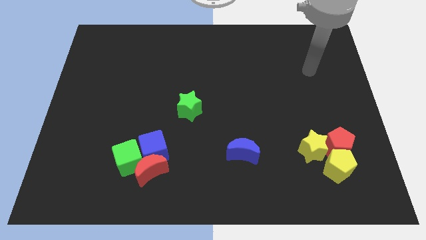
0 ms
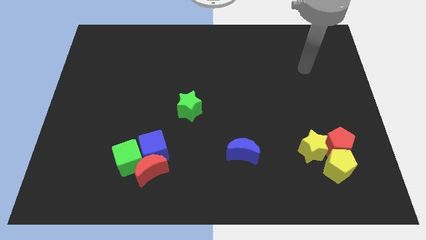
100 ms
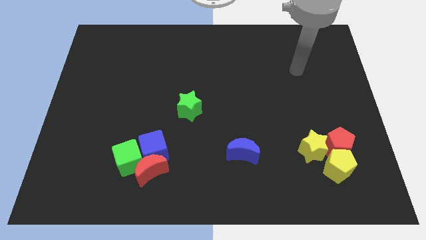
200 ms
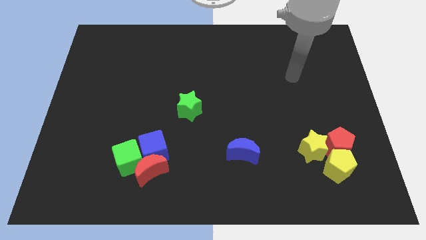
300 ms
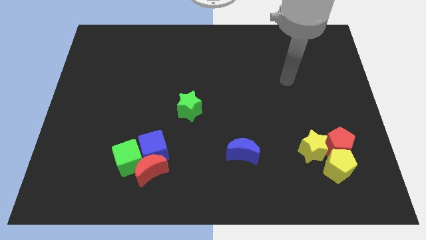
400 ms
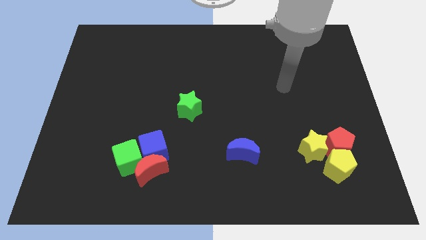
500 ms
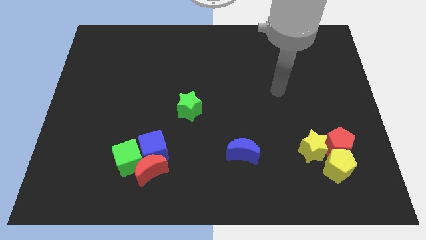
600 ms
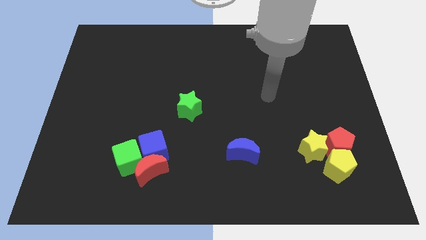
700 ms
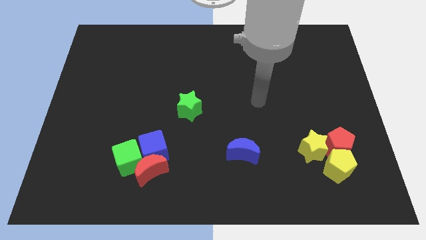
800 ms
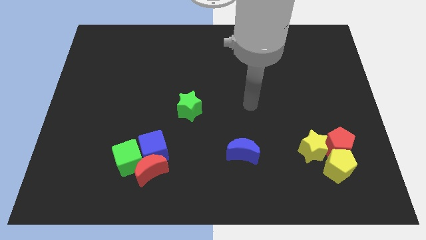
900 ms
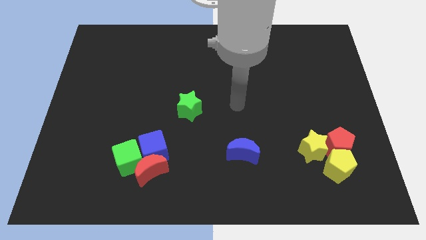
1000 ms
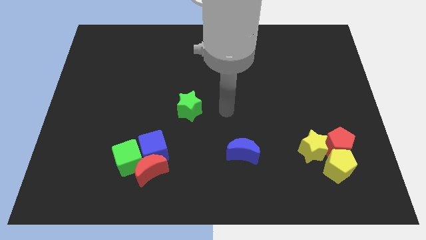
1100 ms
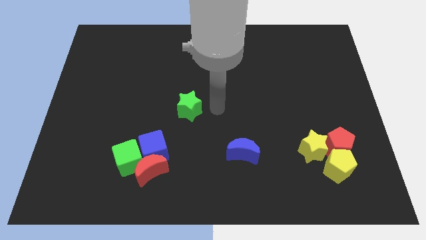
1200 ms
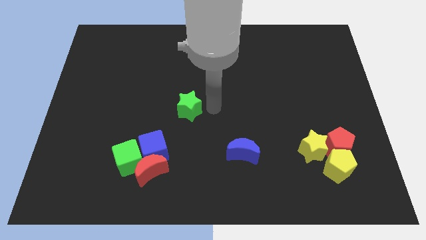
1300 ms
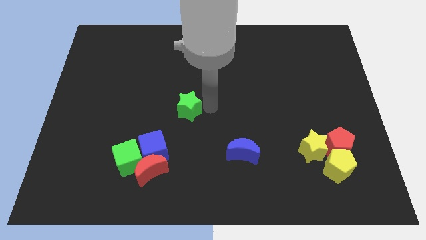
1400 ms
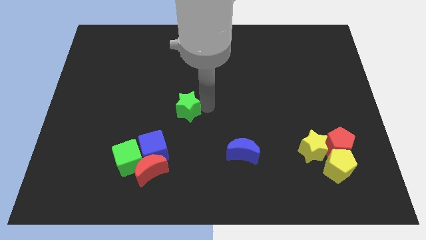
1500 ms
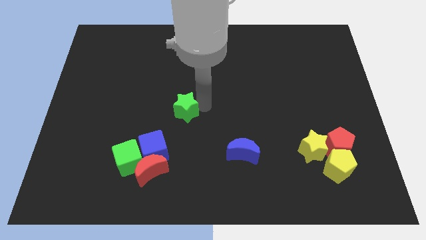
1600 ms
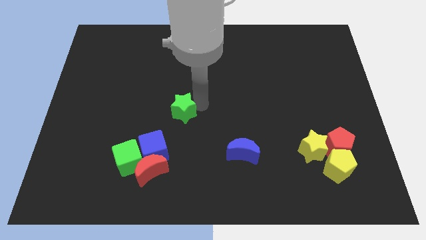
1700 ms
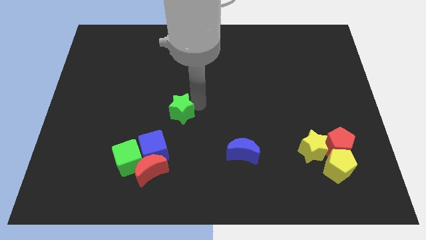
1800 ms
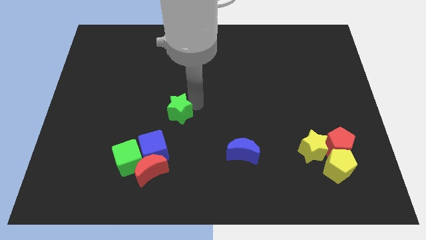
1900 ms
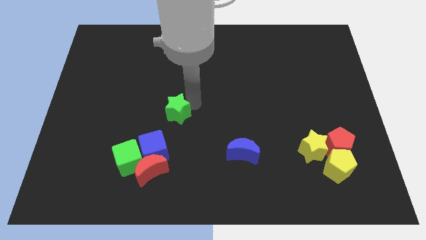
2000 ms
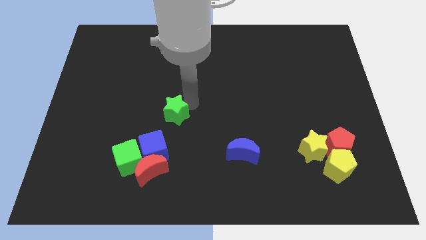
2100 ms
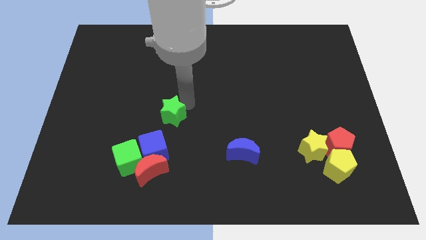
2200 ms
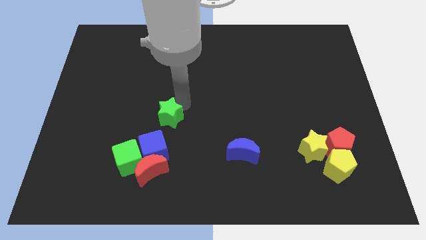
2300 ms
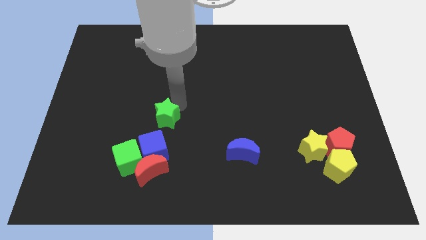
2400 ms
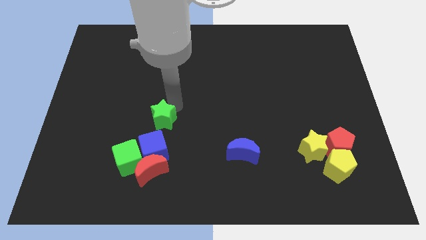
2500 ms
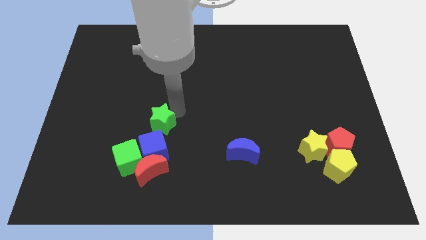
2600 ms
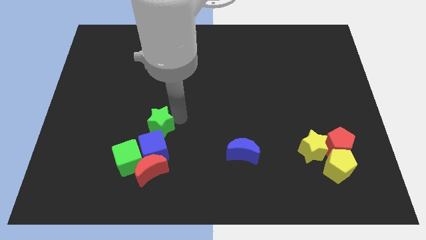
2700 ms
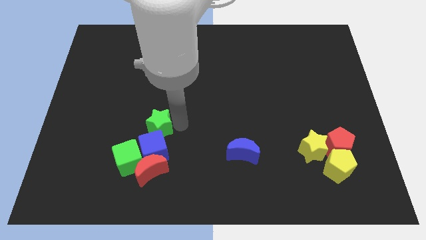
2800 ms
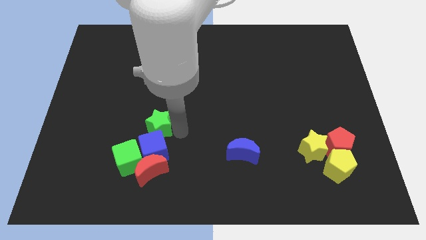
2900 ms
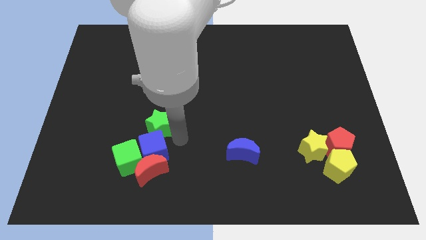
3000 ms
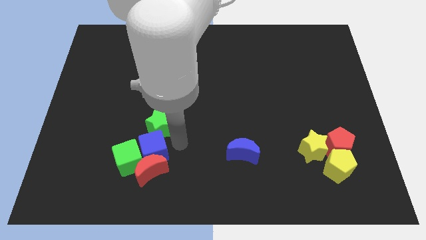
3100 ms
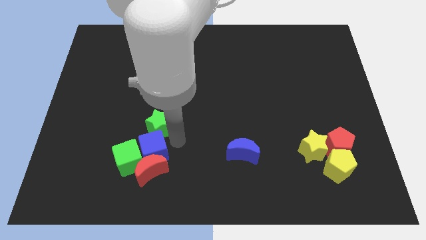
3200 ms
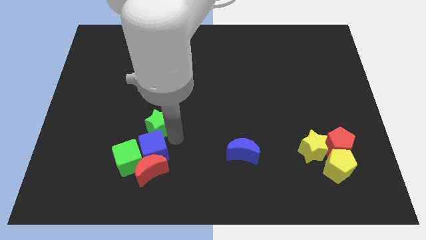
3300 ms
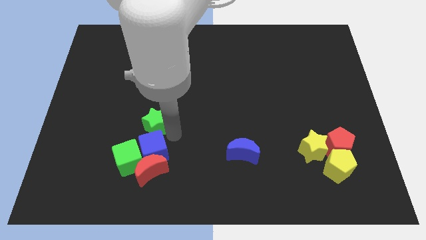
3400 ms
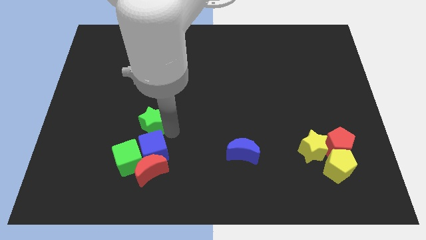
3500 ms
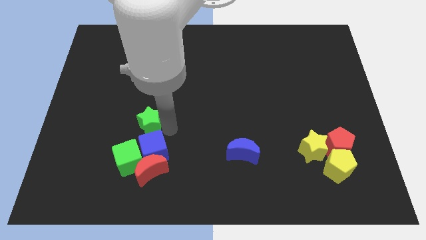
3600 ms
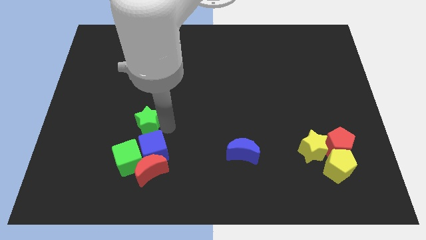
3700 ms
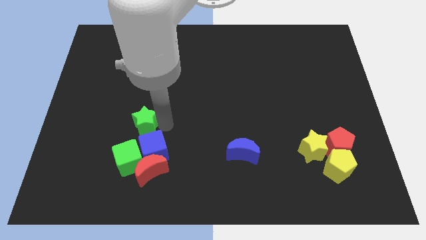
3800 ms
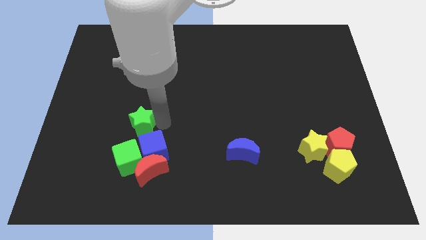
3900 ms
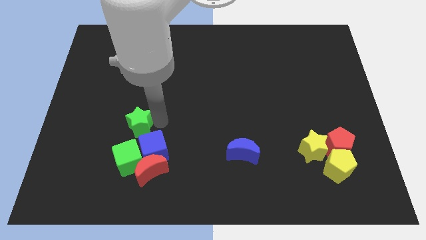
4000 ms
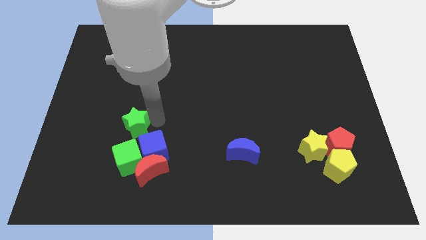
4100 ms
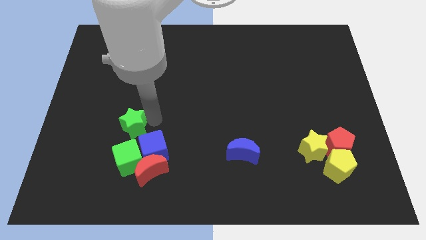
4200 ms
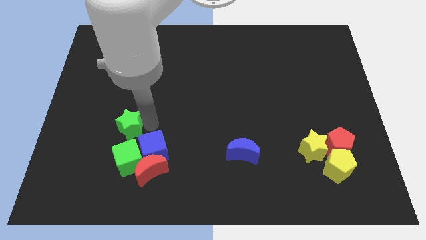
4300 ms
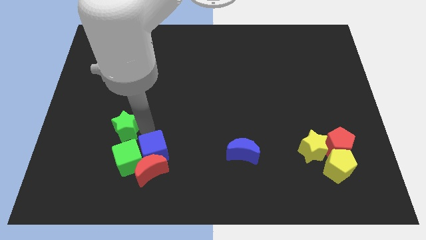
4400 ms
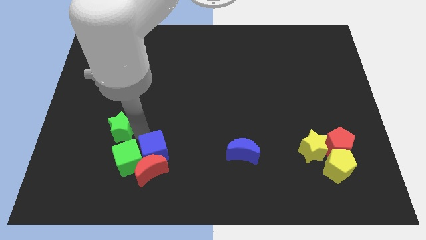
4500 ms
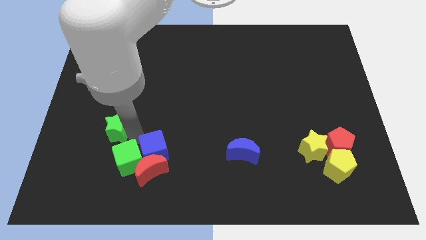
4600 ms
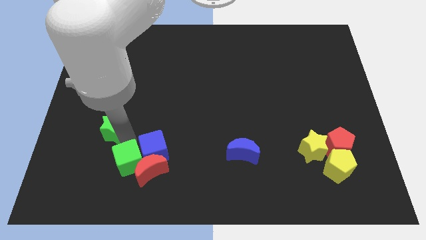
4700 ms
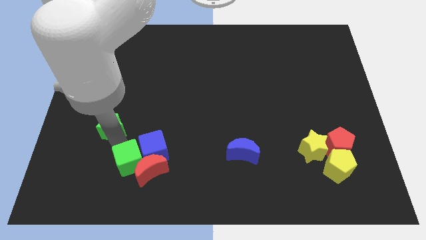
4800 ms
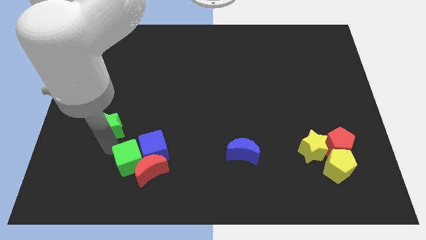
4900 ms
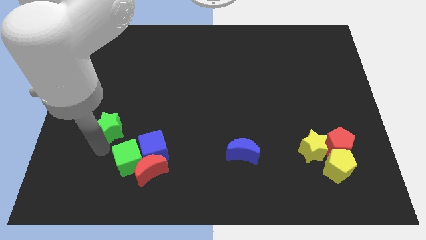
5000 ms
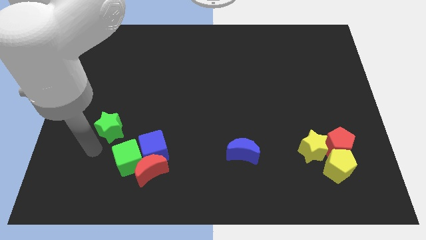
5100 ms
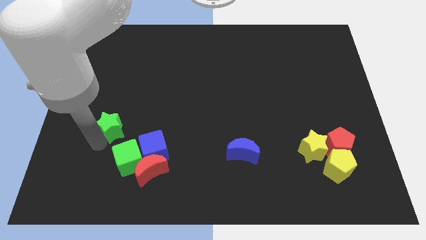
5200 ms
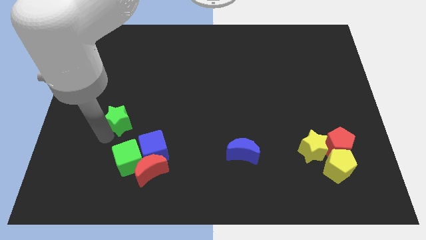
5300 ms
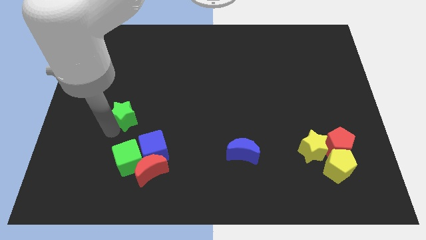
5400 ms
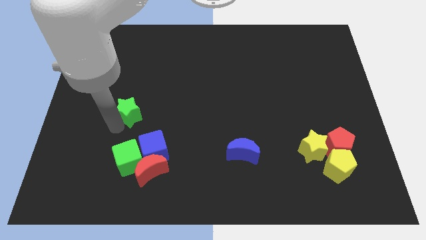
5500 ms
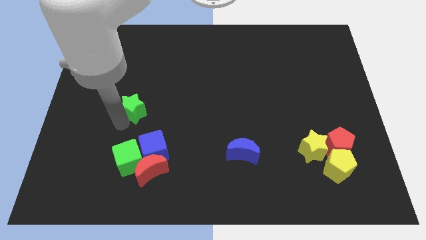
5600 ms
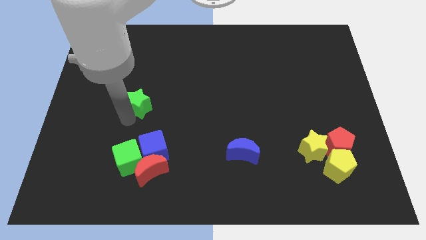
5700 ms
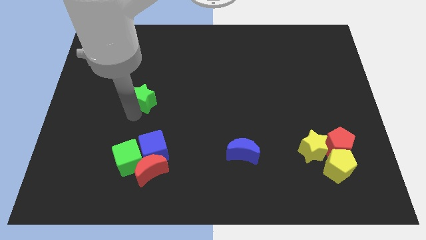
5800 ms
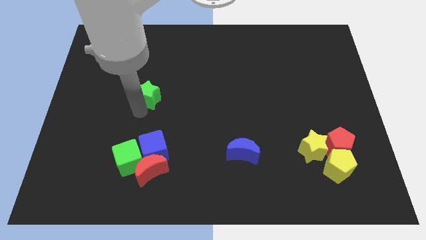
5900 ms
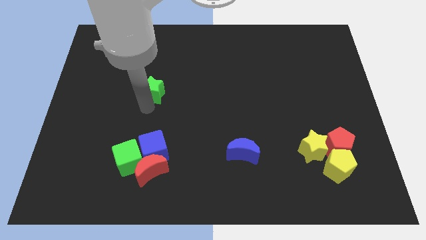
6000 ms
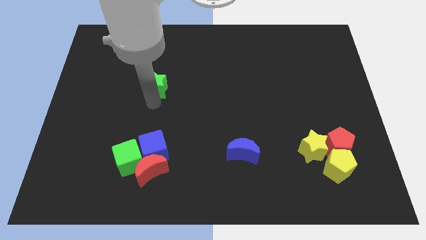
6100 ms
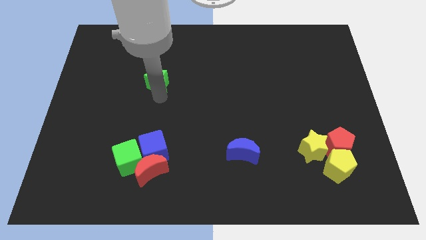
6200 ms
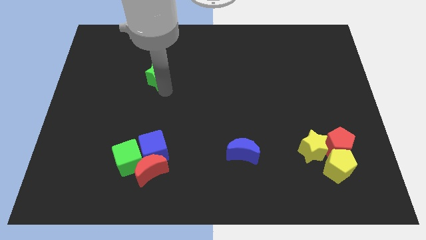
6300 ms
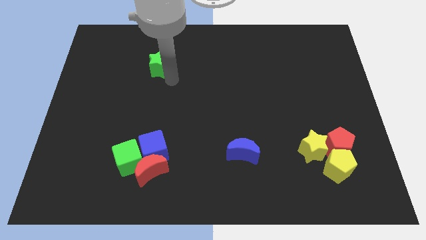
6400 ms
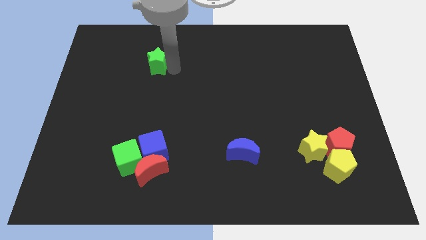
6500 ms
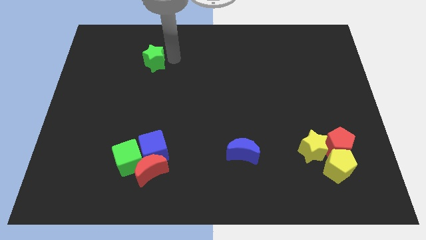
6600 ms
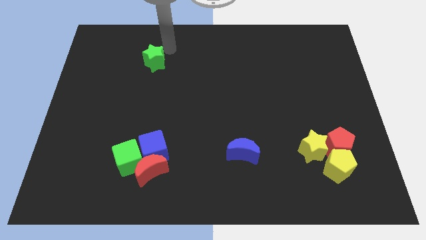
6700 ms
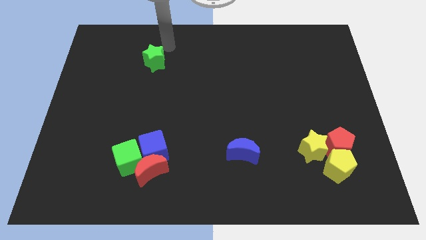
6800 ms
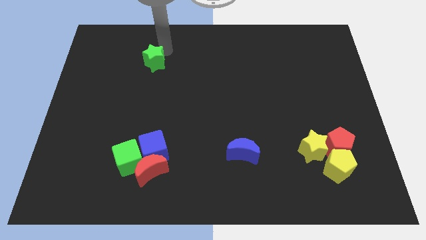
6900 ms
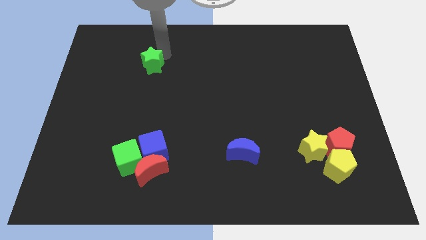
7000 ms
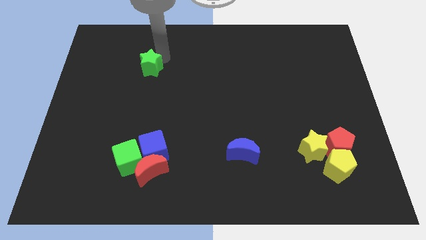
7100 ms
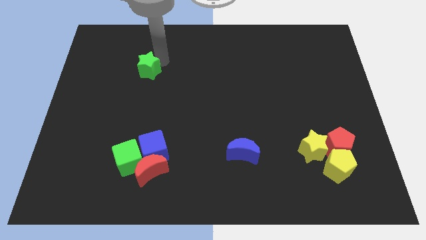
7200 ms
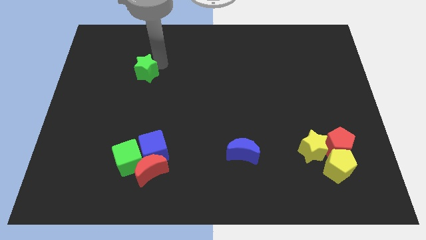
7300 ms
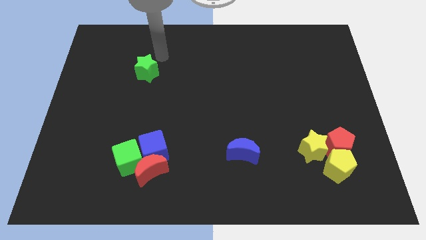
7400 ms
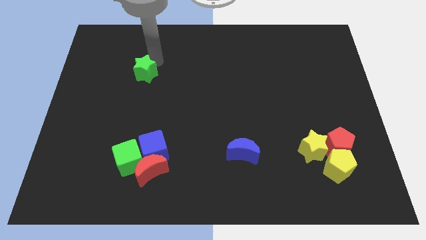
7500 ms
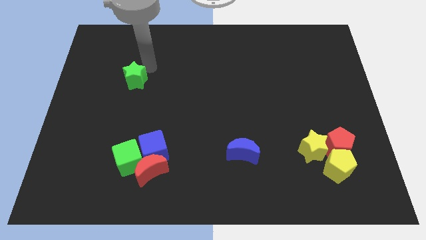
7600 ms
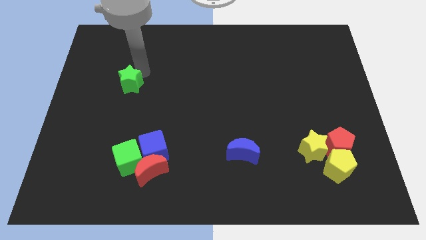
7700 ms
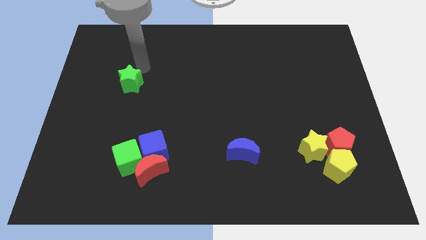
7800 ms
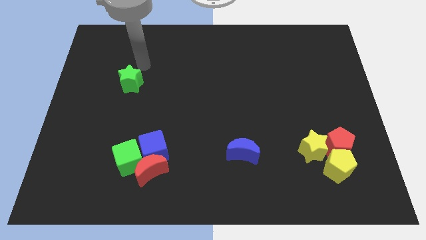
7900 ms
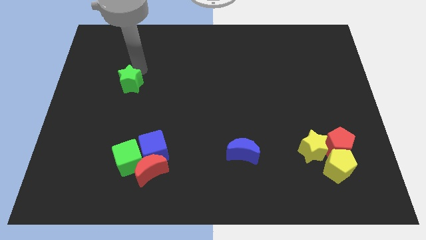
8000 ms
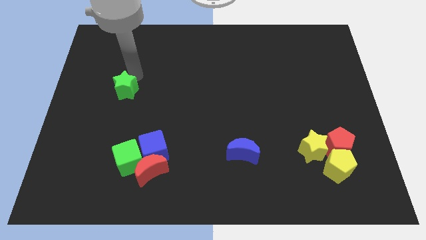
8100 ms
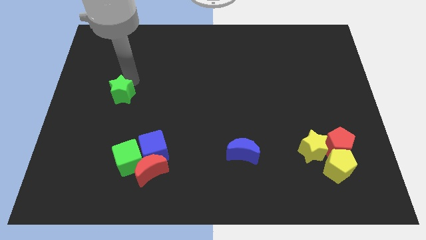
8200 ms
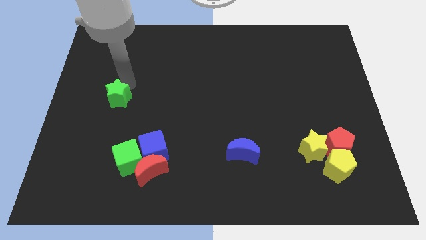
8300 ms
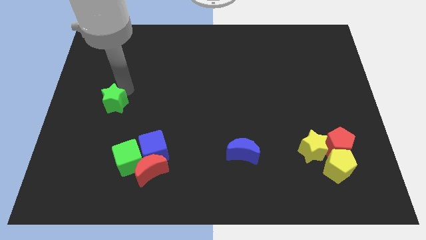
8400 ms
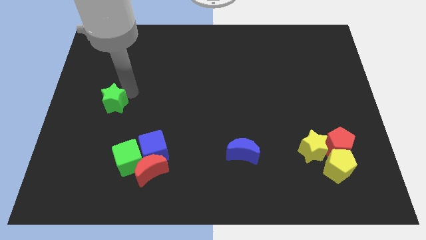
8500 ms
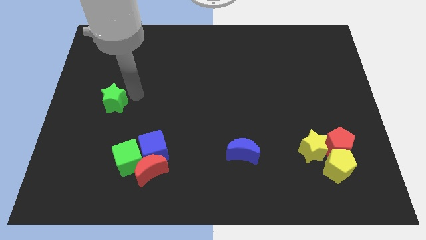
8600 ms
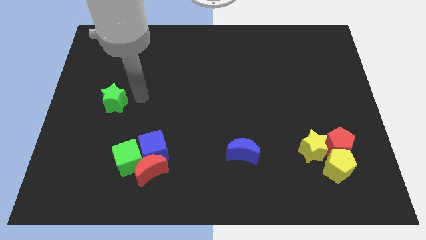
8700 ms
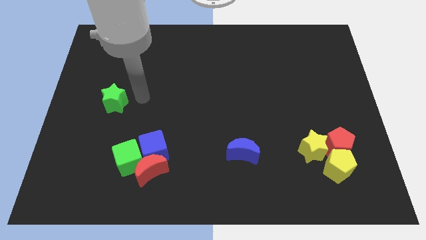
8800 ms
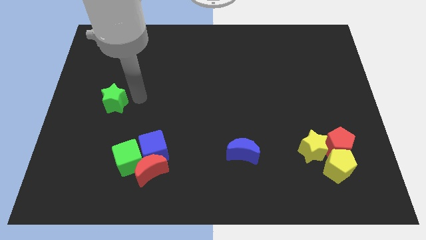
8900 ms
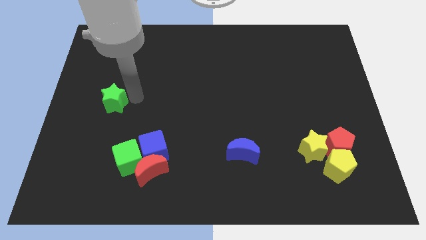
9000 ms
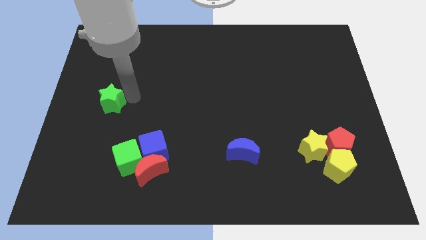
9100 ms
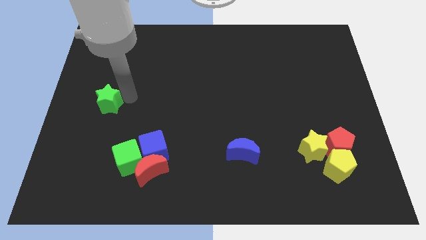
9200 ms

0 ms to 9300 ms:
push the green star to the center left
